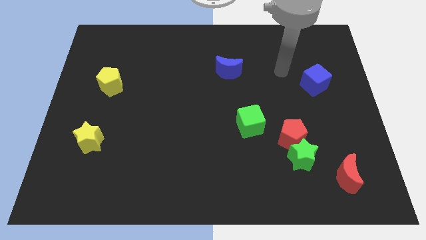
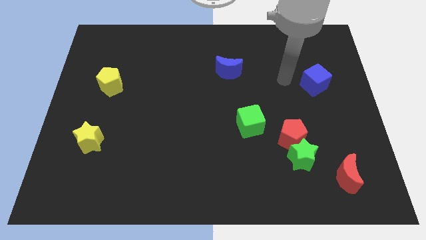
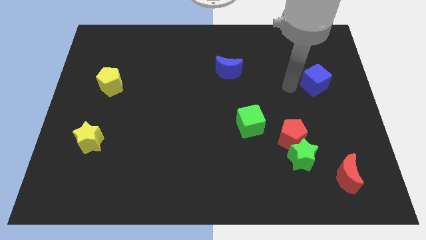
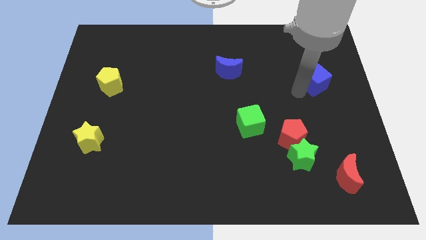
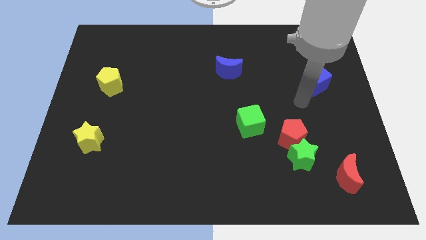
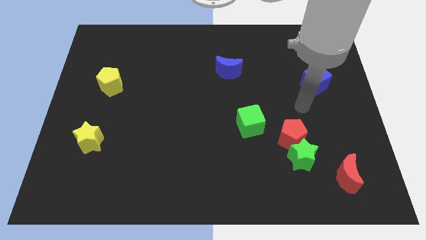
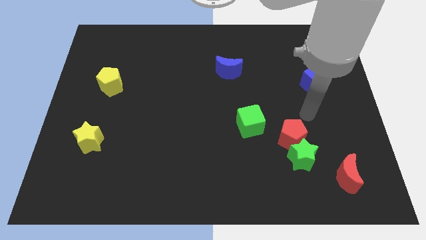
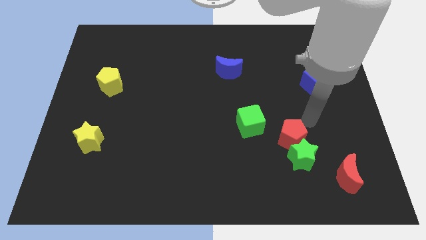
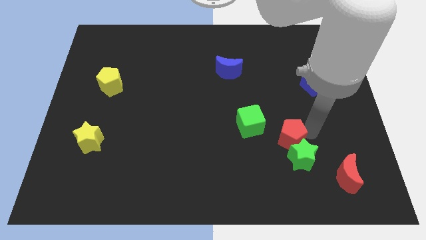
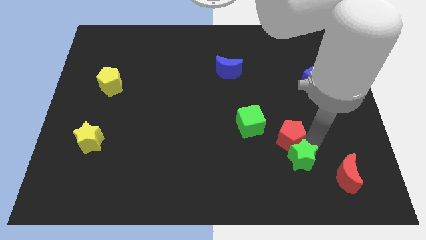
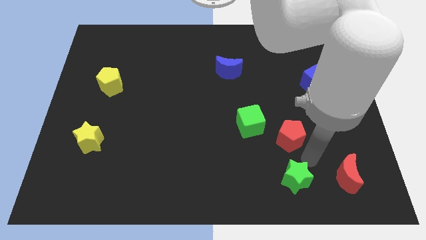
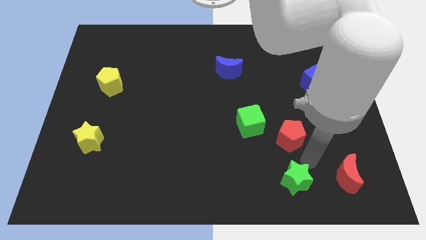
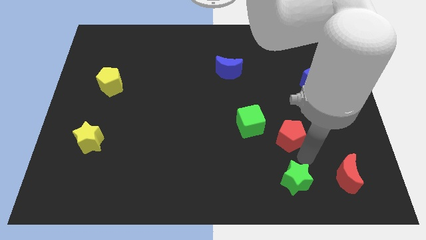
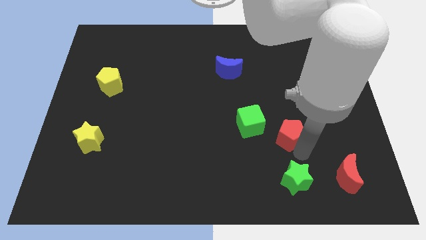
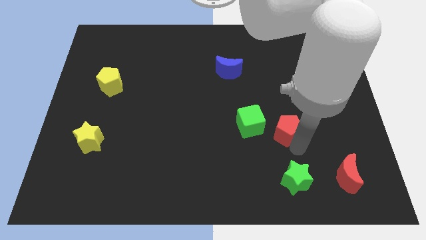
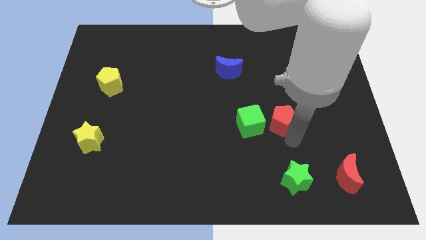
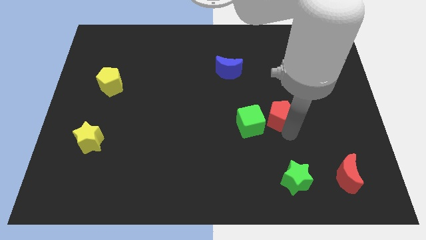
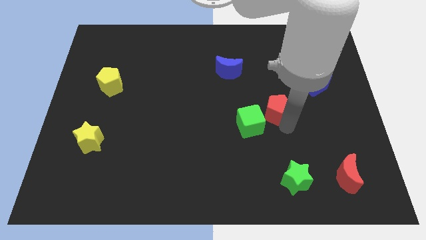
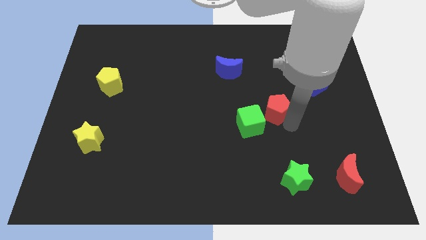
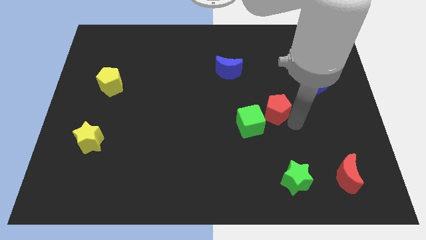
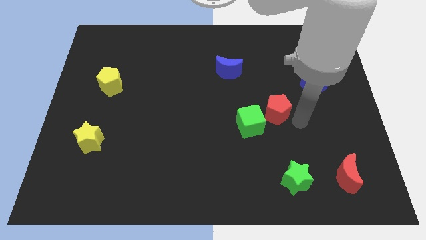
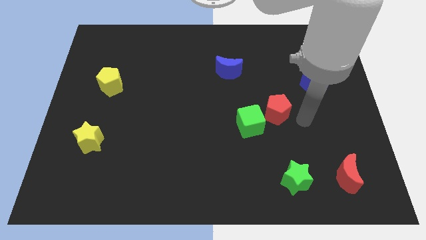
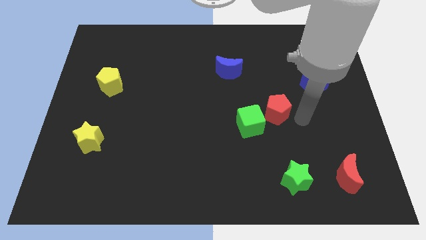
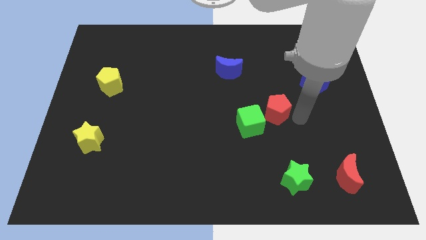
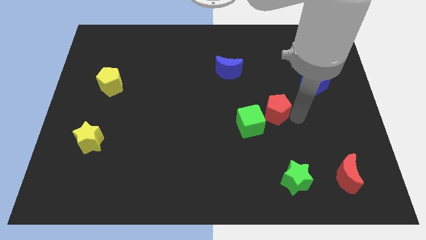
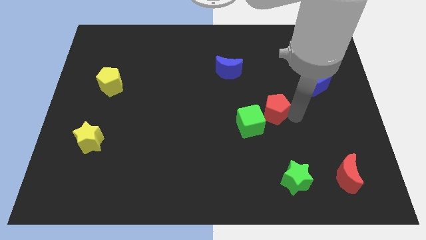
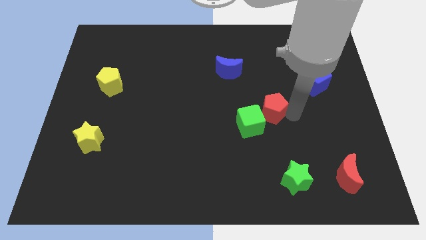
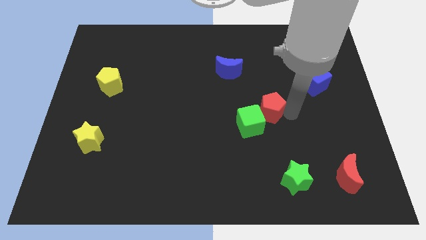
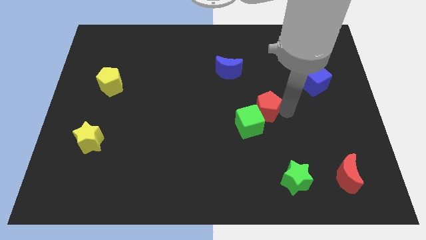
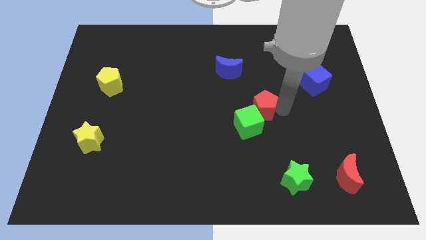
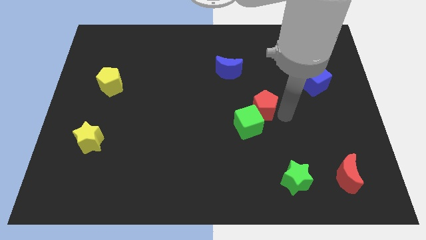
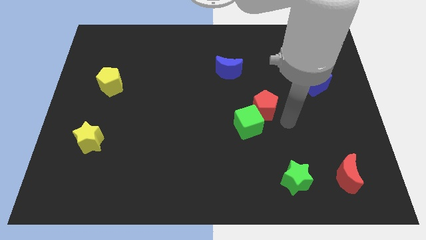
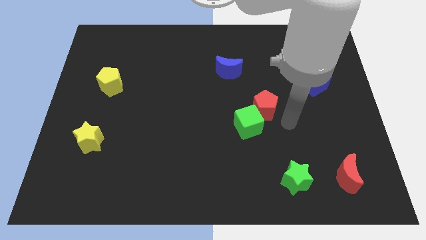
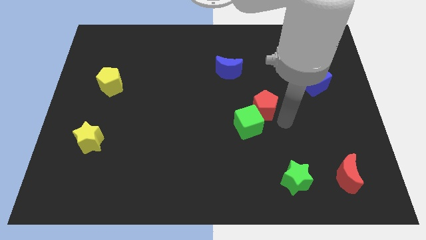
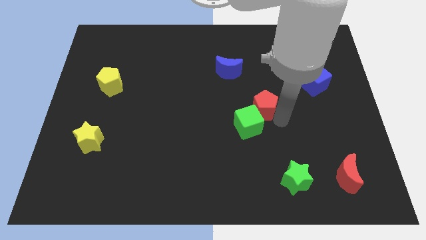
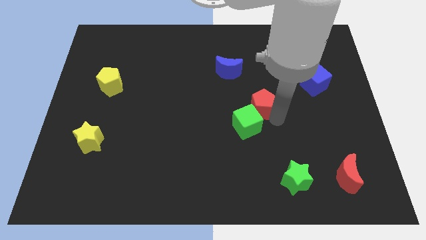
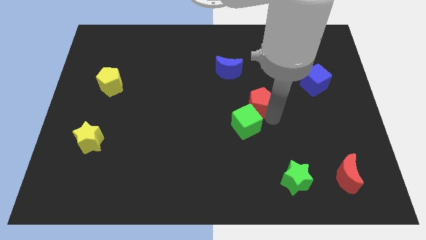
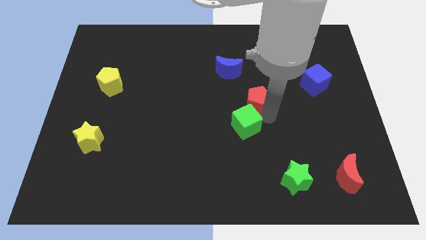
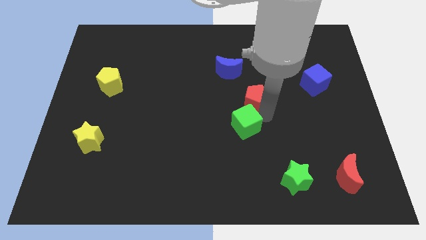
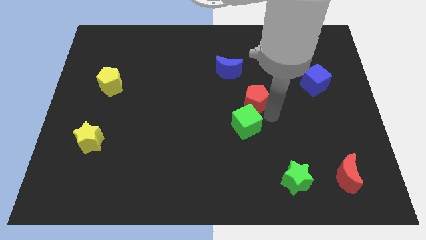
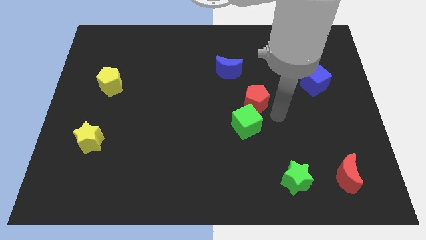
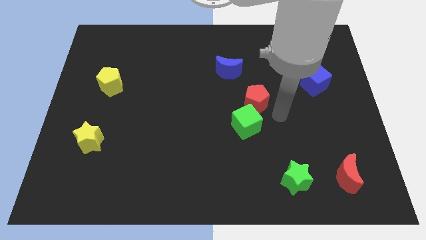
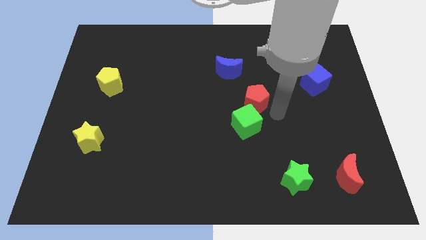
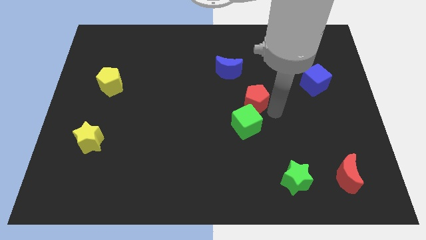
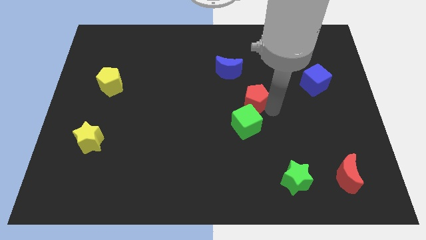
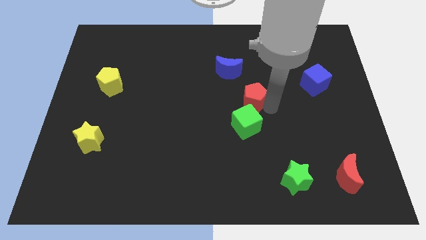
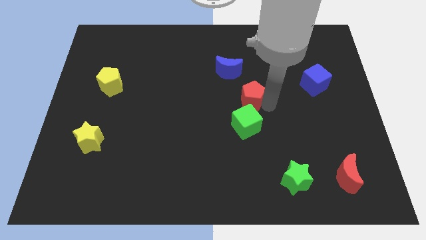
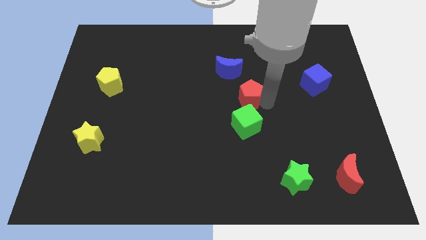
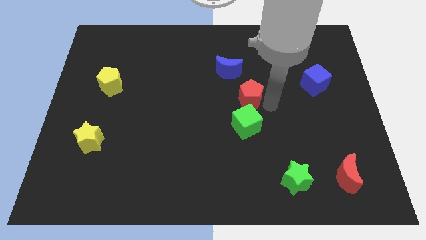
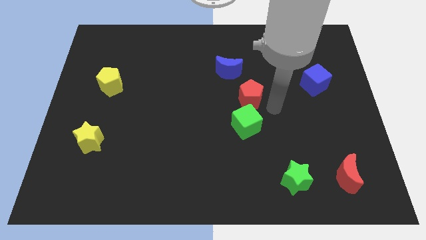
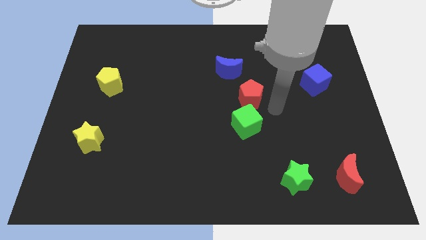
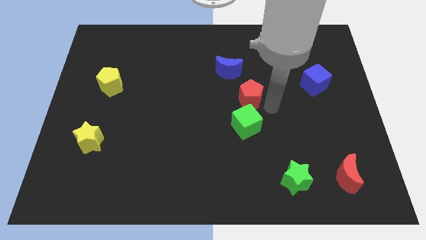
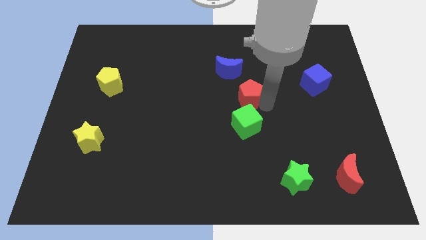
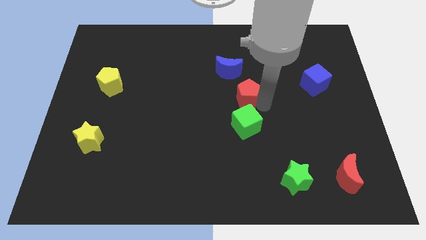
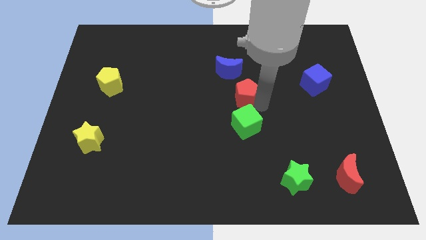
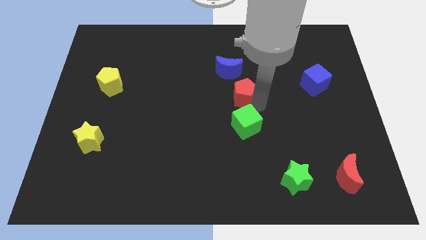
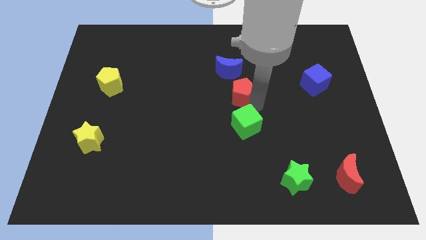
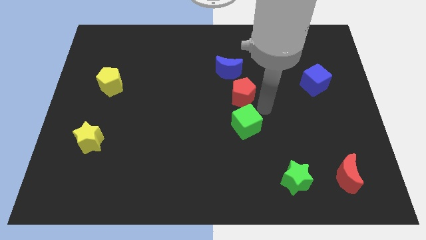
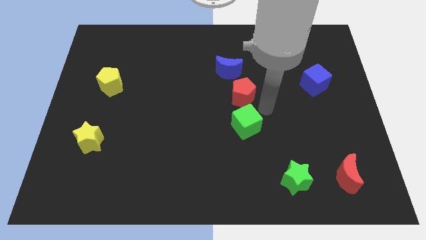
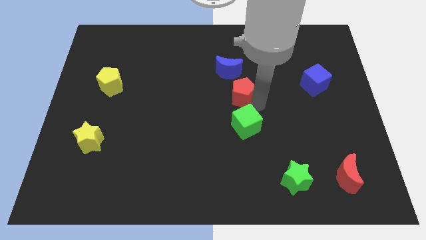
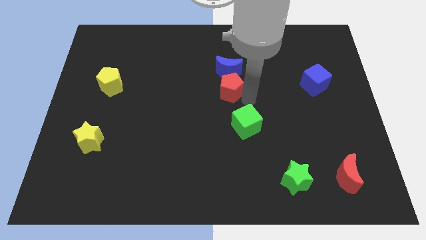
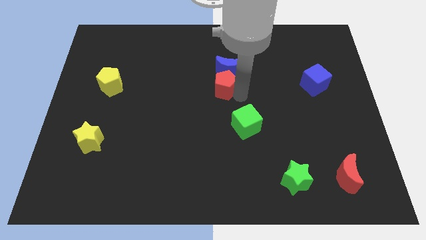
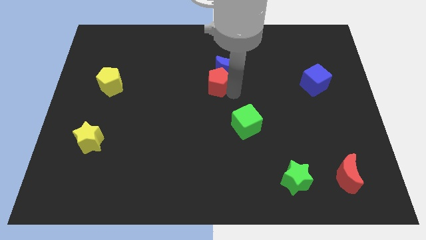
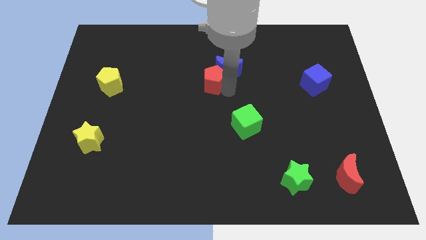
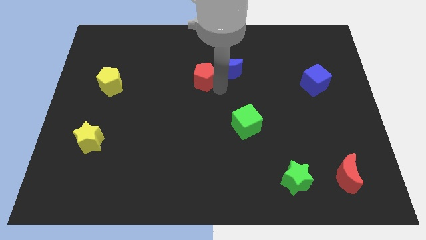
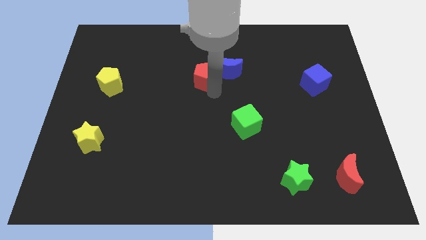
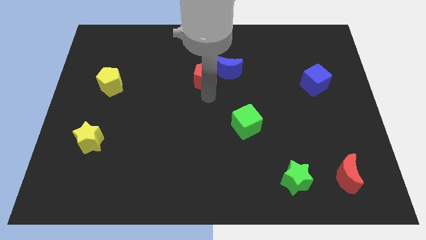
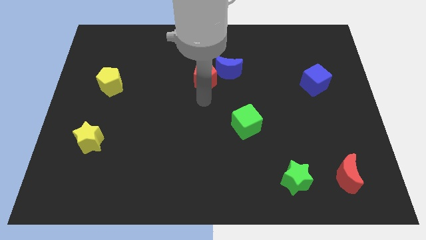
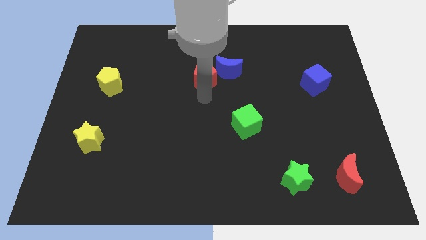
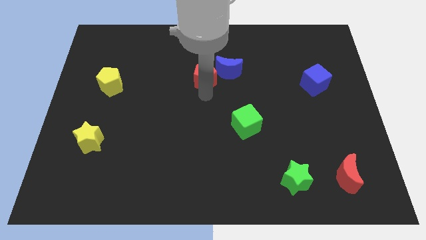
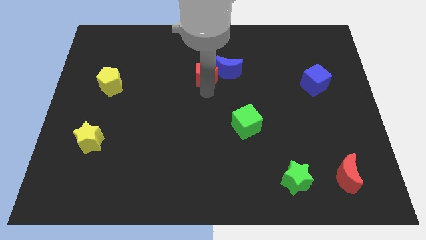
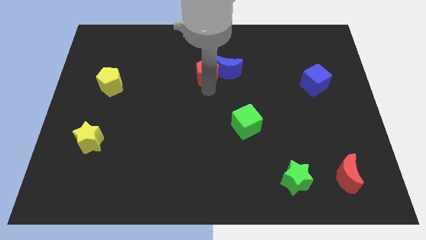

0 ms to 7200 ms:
put the red pentagon to the top left of the blue moon
